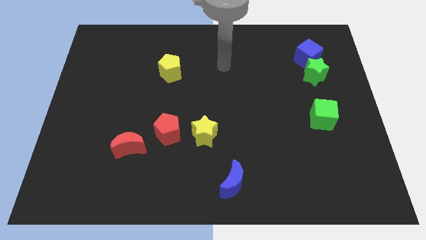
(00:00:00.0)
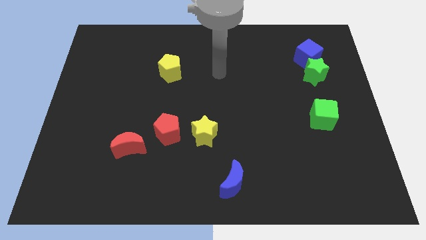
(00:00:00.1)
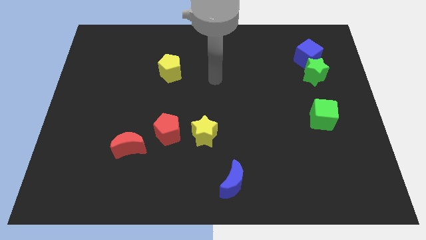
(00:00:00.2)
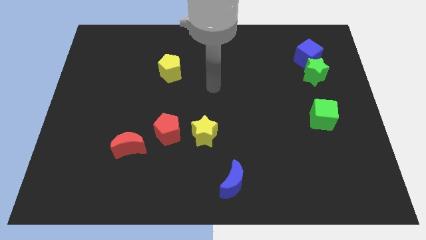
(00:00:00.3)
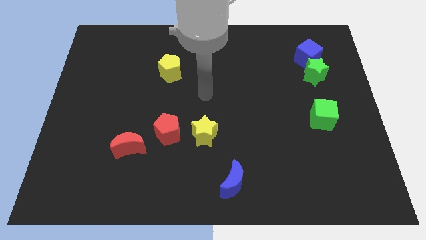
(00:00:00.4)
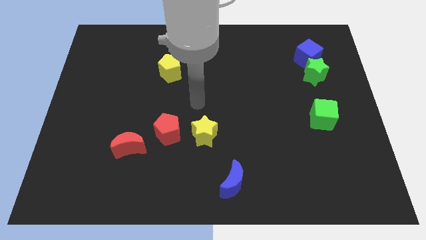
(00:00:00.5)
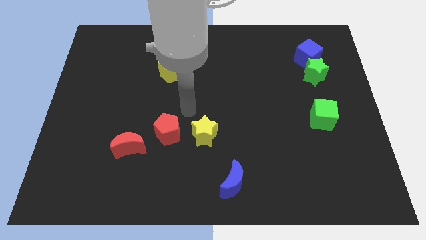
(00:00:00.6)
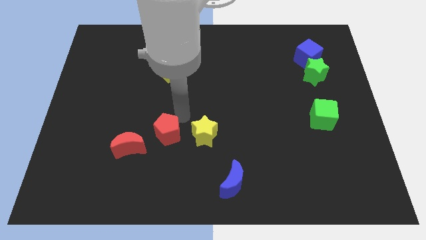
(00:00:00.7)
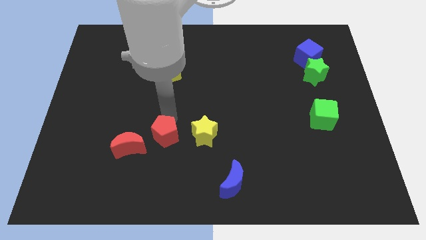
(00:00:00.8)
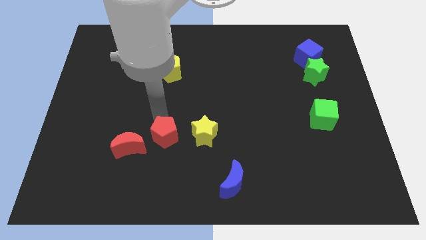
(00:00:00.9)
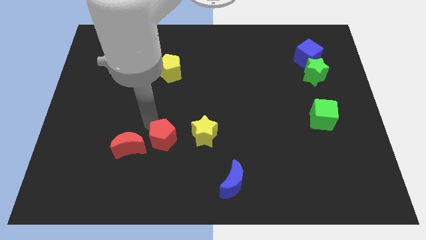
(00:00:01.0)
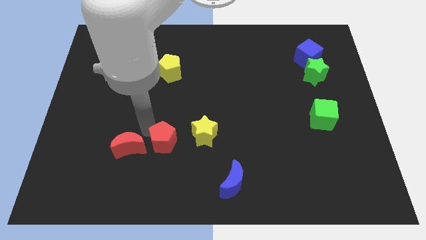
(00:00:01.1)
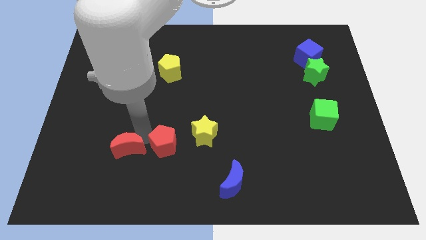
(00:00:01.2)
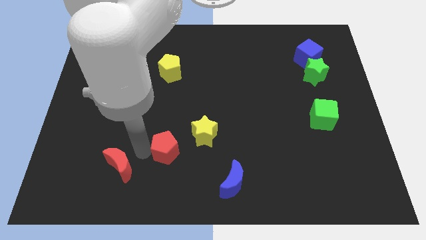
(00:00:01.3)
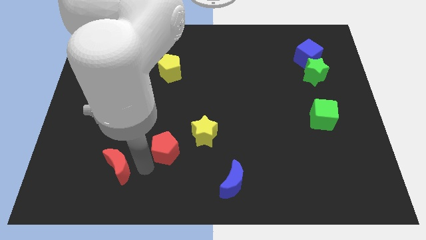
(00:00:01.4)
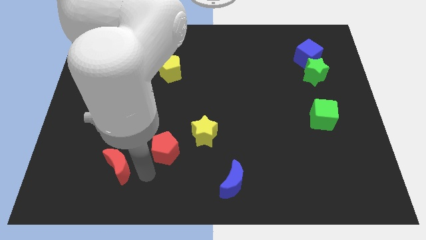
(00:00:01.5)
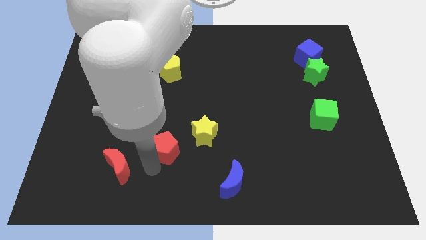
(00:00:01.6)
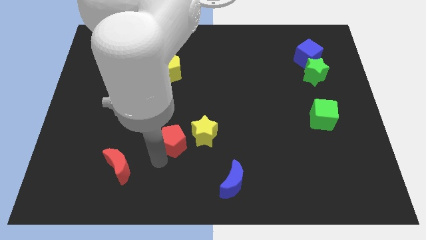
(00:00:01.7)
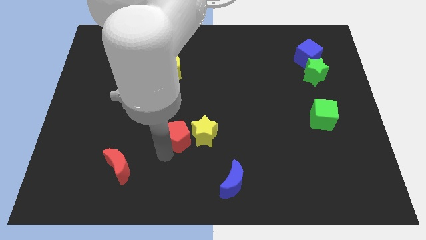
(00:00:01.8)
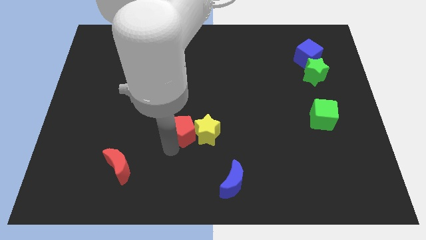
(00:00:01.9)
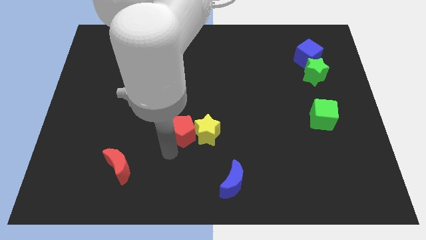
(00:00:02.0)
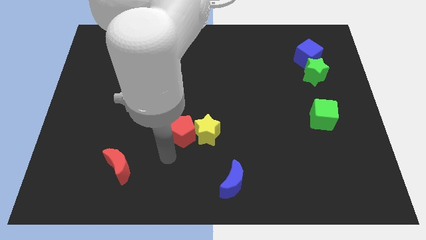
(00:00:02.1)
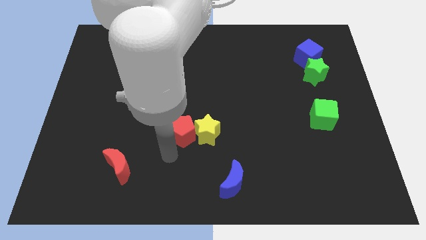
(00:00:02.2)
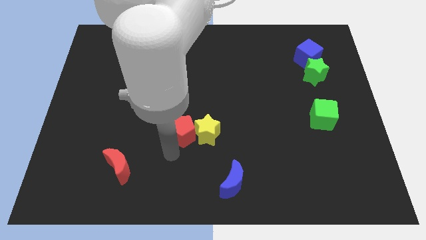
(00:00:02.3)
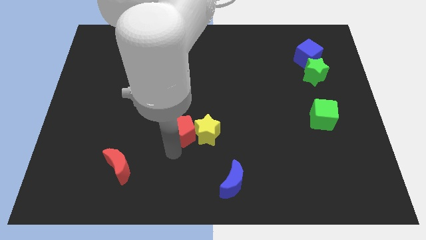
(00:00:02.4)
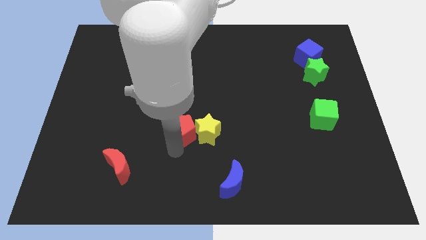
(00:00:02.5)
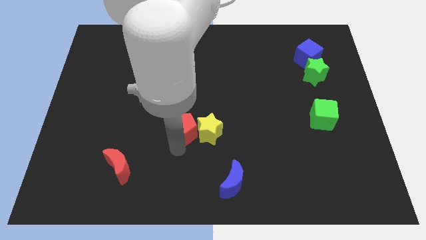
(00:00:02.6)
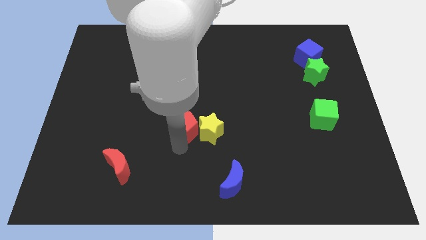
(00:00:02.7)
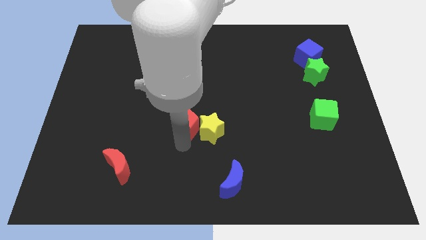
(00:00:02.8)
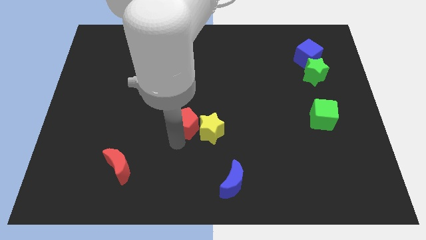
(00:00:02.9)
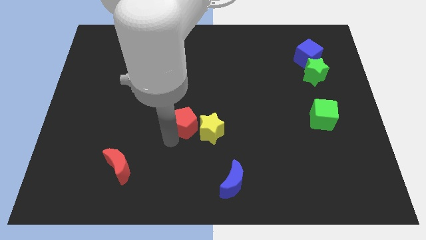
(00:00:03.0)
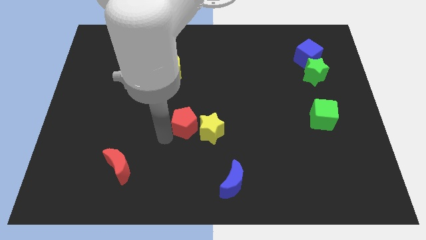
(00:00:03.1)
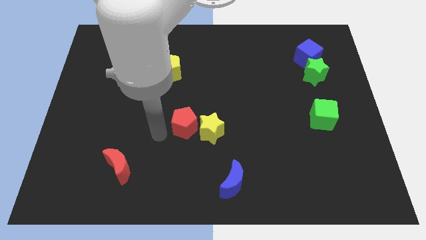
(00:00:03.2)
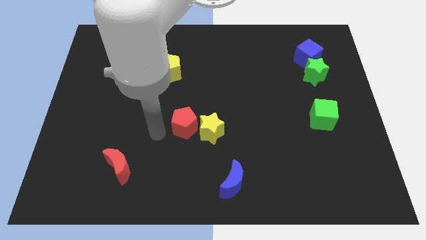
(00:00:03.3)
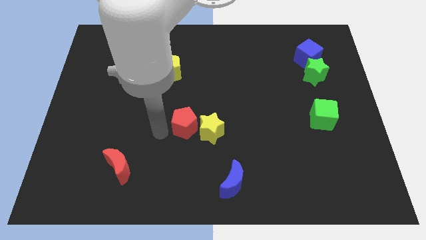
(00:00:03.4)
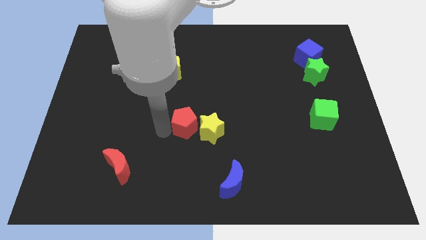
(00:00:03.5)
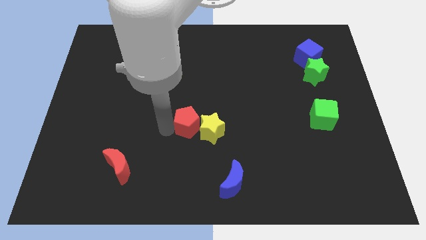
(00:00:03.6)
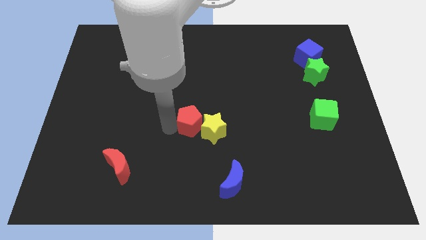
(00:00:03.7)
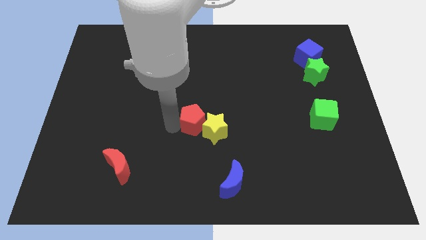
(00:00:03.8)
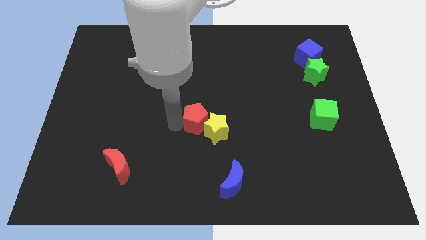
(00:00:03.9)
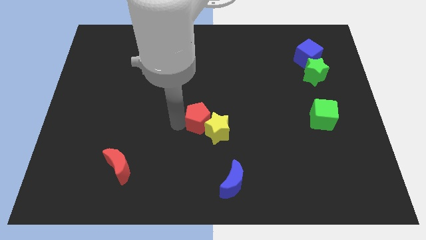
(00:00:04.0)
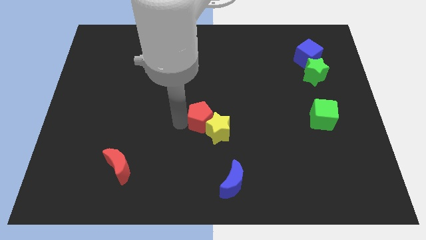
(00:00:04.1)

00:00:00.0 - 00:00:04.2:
slightly push the red pentagon right

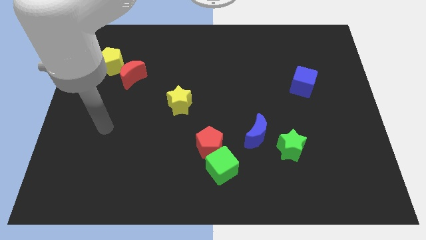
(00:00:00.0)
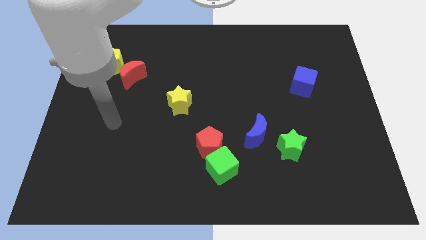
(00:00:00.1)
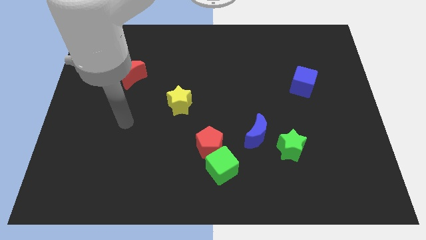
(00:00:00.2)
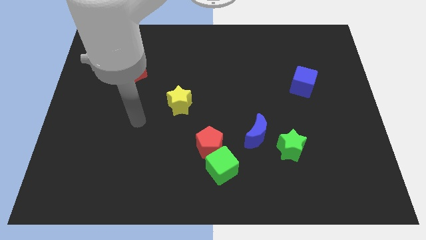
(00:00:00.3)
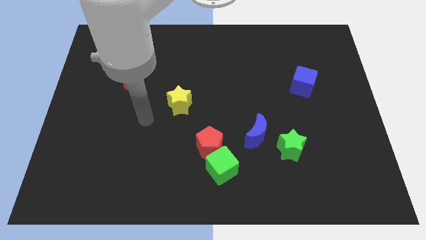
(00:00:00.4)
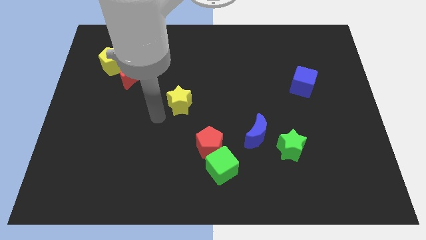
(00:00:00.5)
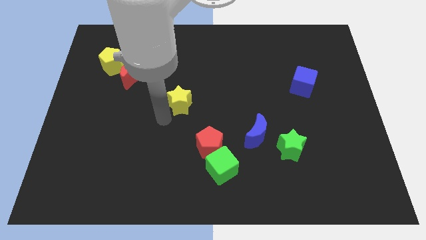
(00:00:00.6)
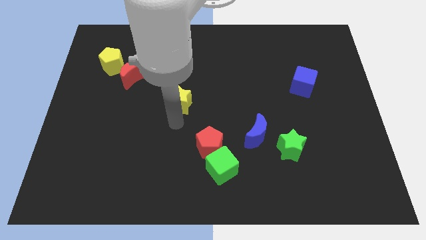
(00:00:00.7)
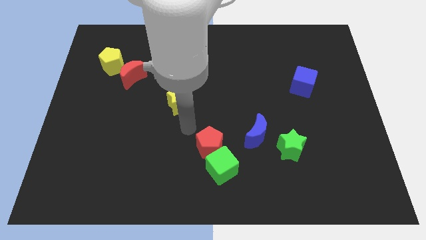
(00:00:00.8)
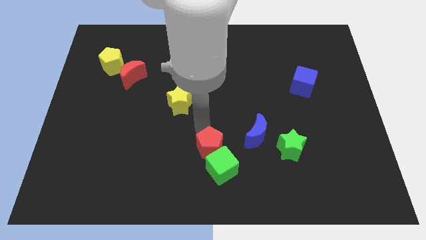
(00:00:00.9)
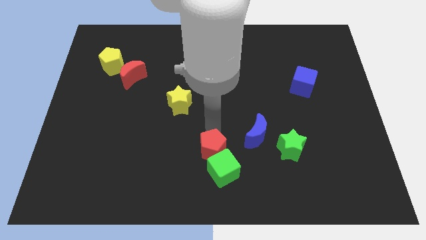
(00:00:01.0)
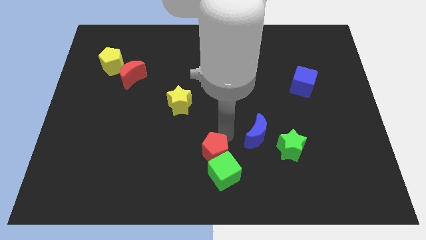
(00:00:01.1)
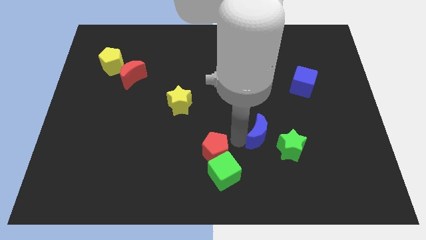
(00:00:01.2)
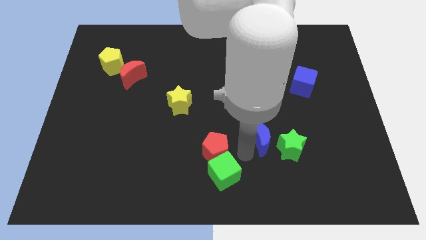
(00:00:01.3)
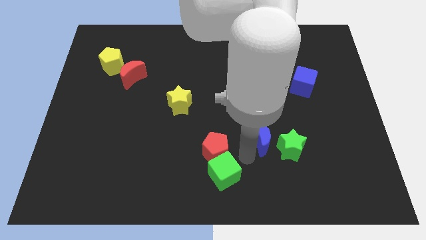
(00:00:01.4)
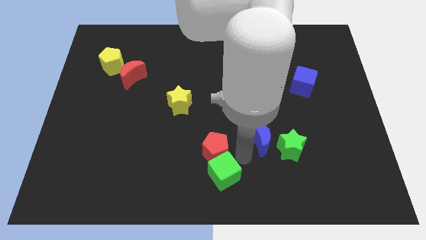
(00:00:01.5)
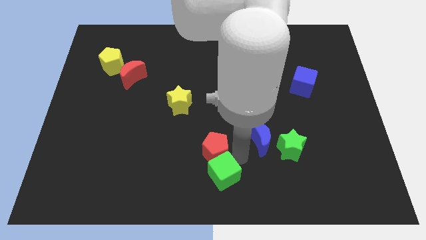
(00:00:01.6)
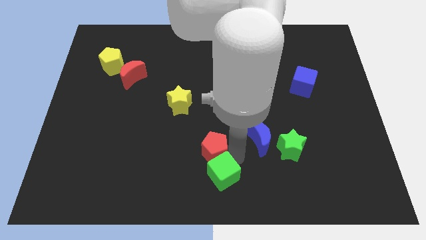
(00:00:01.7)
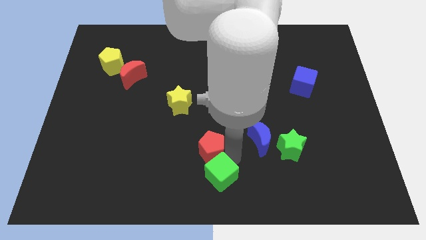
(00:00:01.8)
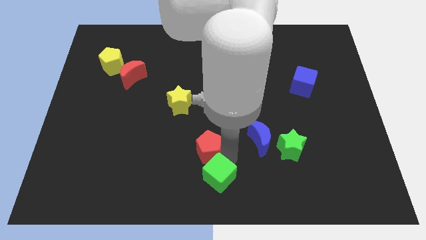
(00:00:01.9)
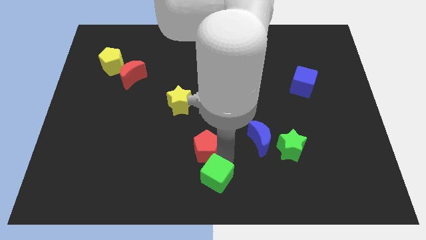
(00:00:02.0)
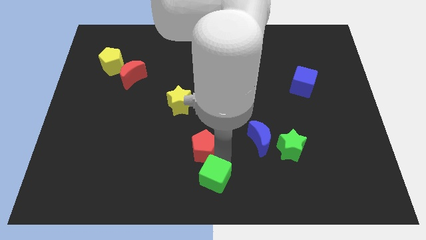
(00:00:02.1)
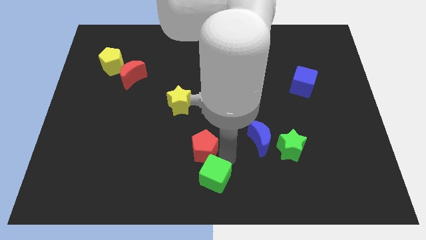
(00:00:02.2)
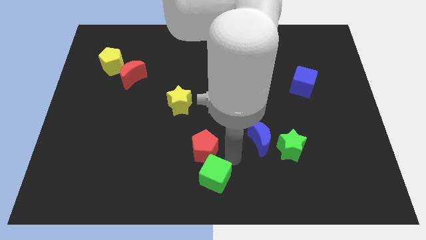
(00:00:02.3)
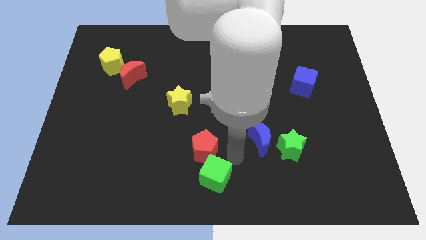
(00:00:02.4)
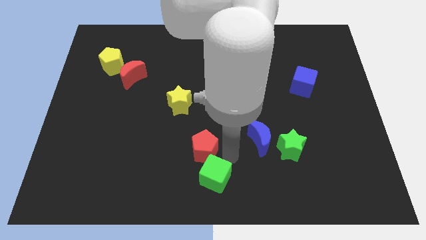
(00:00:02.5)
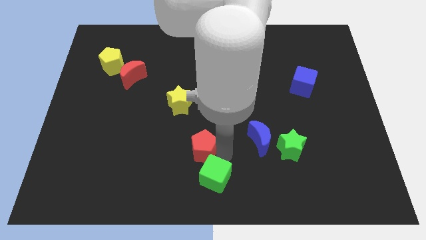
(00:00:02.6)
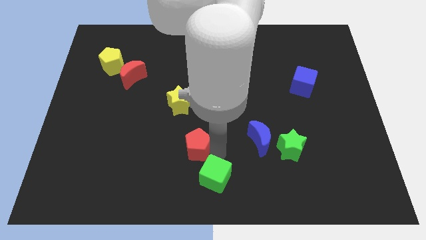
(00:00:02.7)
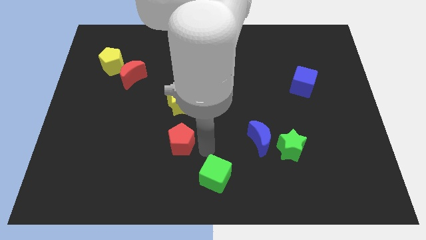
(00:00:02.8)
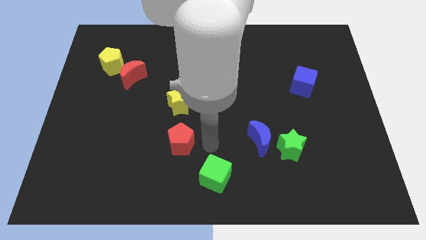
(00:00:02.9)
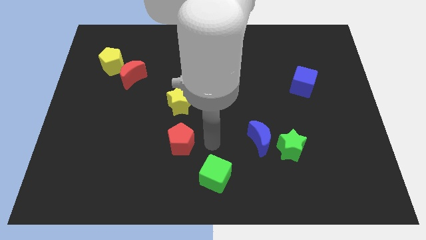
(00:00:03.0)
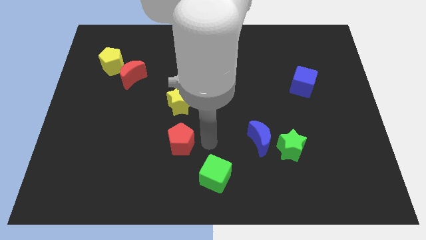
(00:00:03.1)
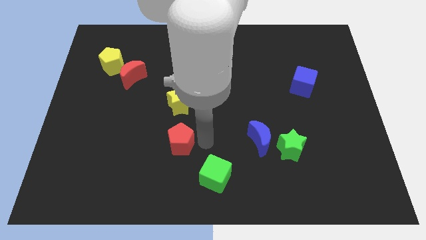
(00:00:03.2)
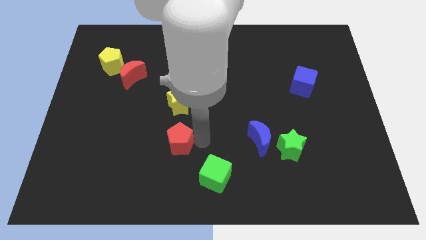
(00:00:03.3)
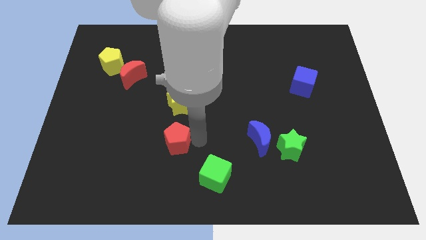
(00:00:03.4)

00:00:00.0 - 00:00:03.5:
move the red pentagon to the left slightly
